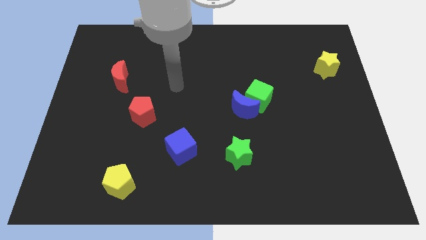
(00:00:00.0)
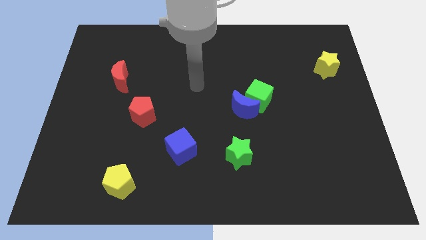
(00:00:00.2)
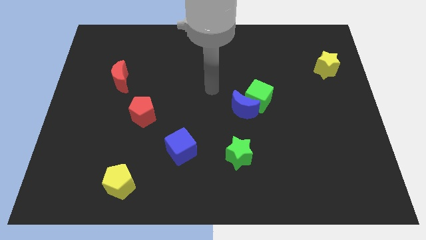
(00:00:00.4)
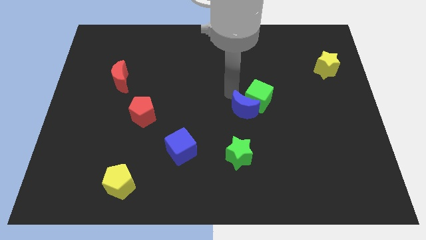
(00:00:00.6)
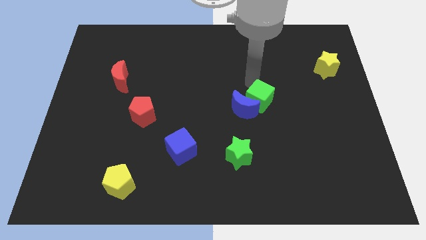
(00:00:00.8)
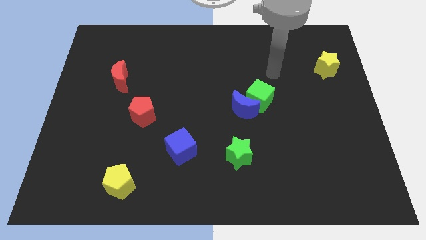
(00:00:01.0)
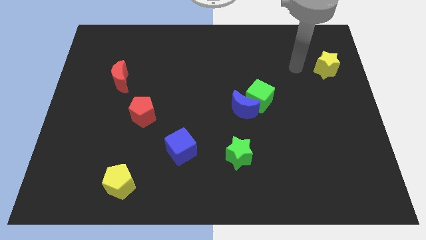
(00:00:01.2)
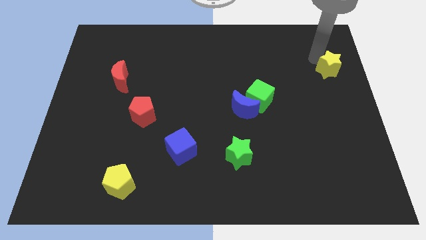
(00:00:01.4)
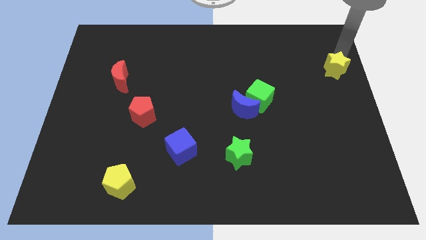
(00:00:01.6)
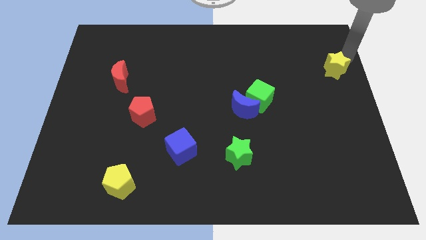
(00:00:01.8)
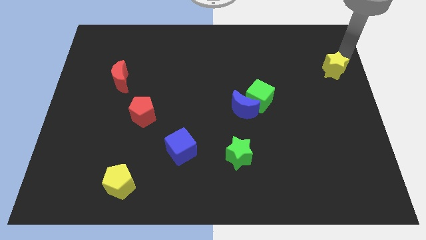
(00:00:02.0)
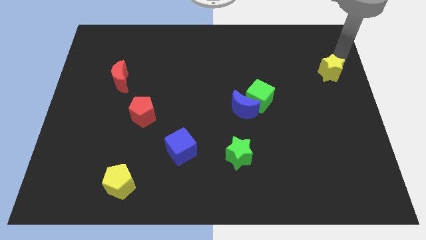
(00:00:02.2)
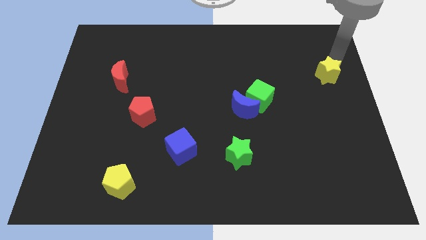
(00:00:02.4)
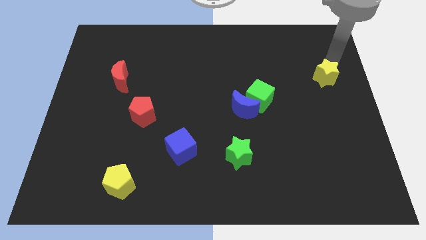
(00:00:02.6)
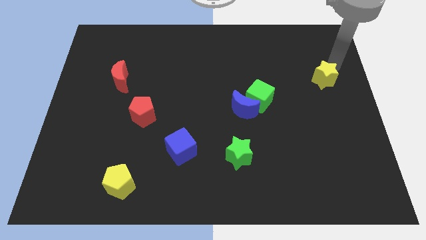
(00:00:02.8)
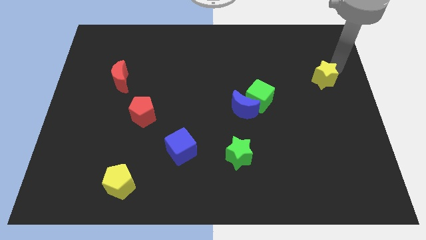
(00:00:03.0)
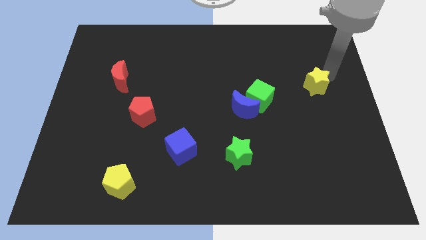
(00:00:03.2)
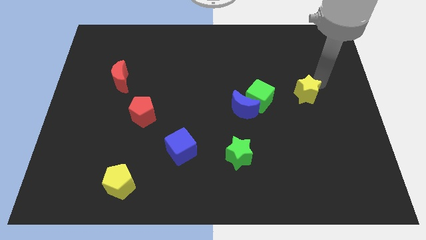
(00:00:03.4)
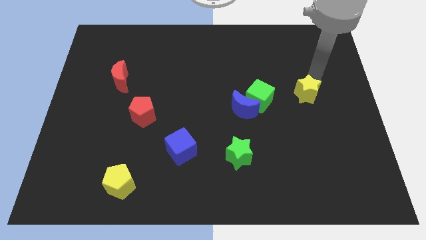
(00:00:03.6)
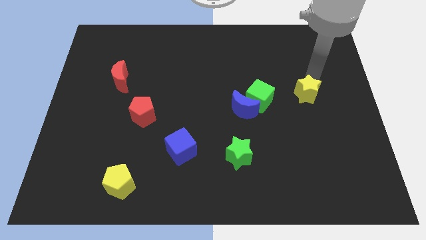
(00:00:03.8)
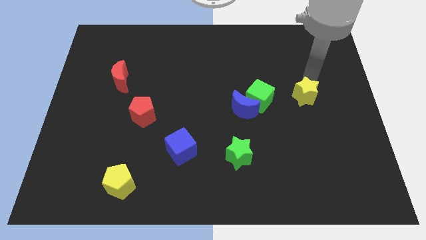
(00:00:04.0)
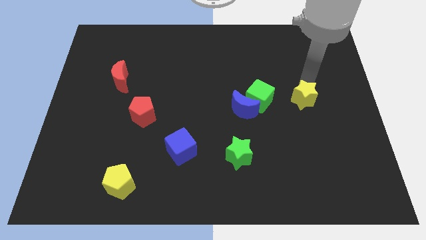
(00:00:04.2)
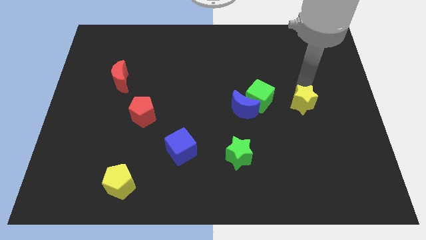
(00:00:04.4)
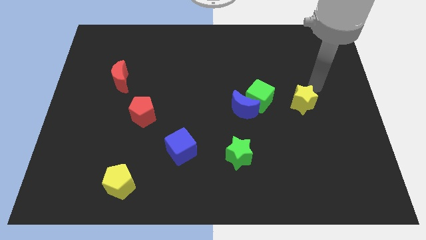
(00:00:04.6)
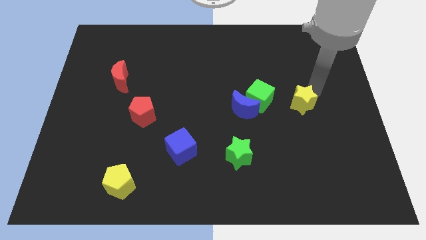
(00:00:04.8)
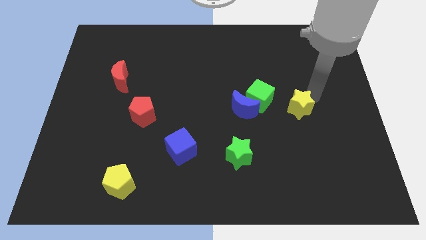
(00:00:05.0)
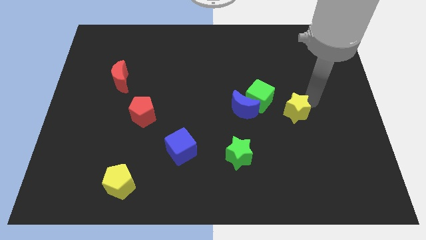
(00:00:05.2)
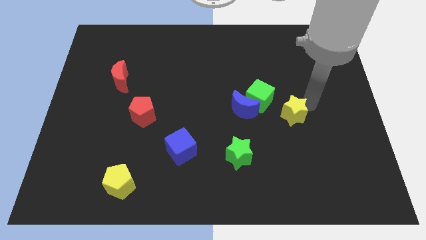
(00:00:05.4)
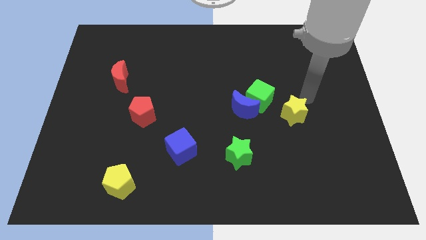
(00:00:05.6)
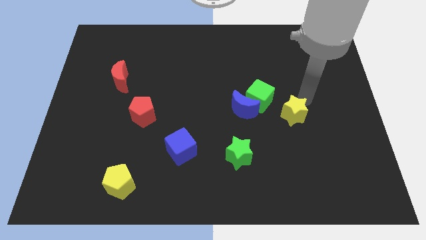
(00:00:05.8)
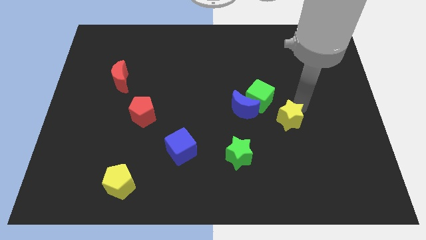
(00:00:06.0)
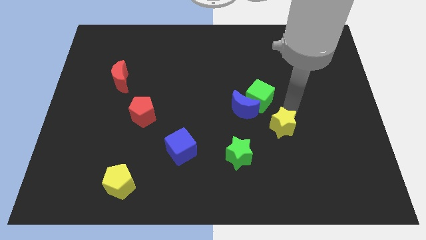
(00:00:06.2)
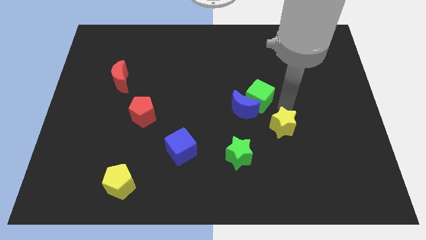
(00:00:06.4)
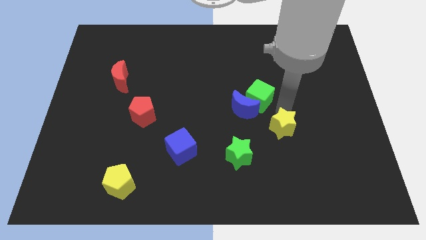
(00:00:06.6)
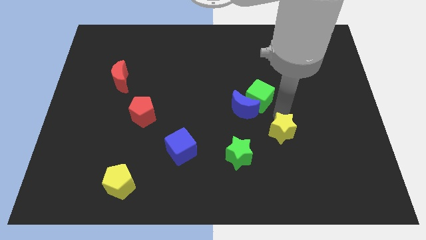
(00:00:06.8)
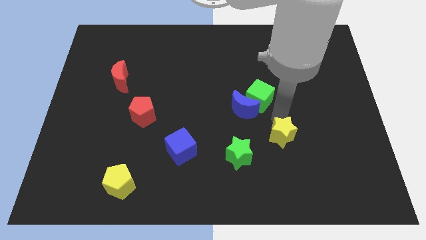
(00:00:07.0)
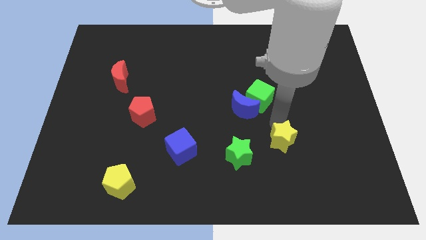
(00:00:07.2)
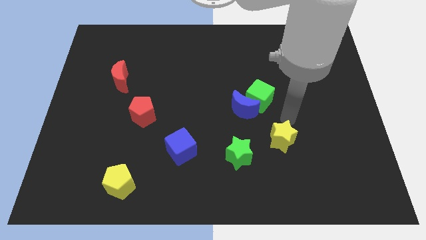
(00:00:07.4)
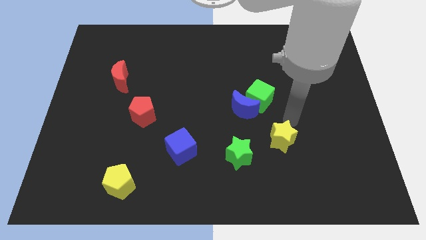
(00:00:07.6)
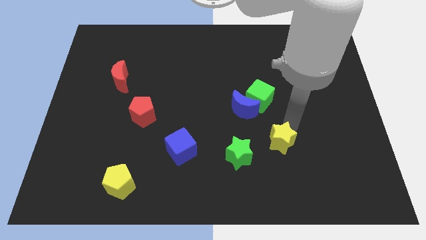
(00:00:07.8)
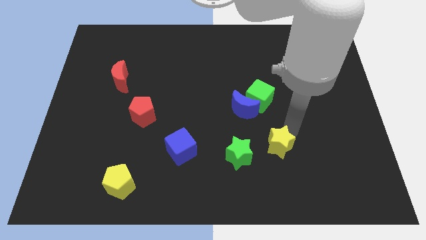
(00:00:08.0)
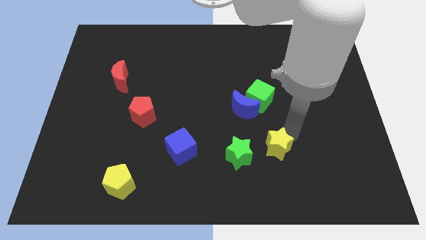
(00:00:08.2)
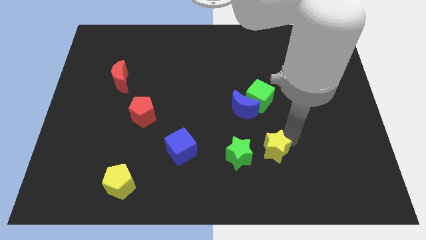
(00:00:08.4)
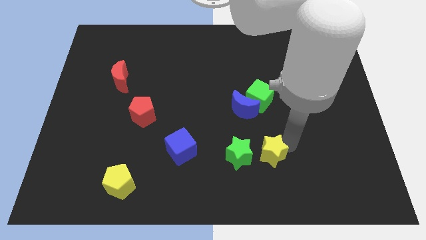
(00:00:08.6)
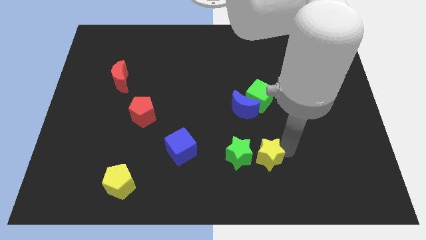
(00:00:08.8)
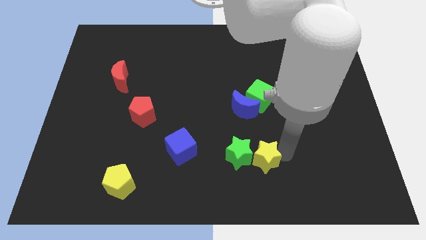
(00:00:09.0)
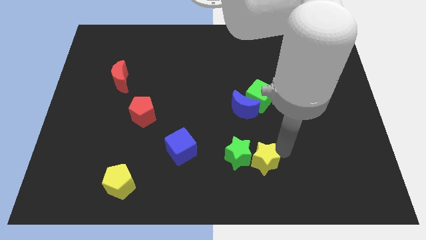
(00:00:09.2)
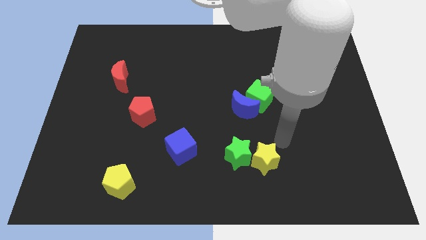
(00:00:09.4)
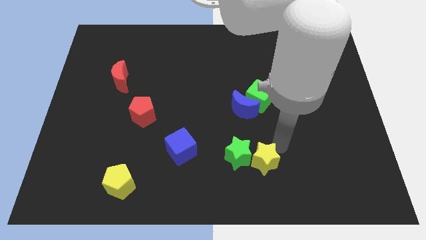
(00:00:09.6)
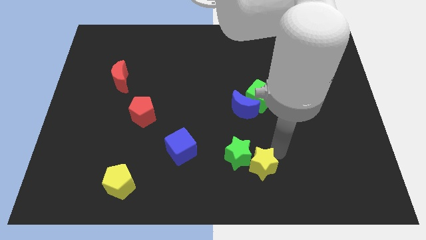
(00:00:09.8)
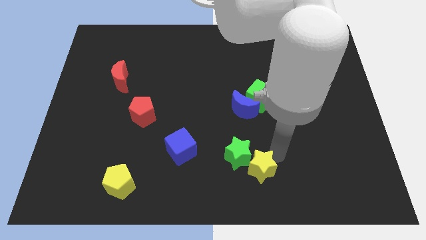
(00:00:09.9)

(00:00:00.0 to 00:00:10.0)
put the yellow star to the bottom side

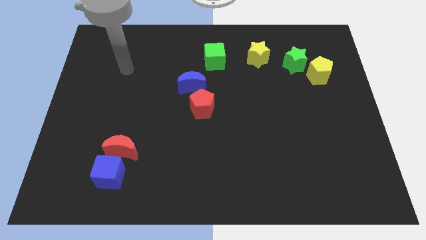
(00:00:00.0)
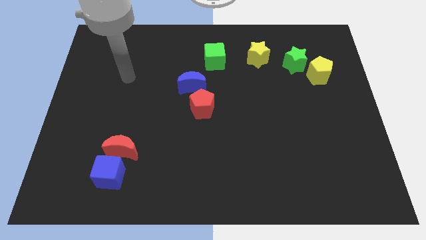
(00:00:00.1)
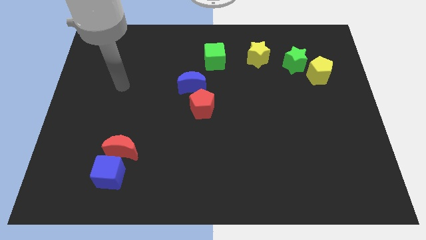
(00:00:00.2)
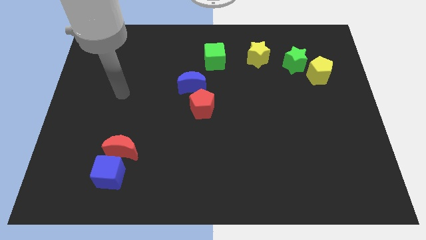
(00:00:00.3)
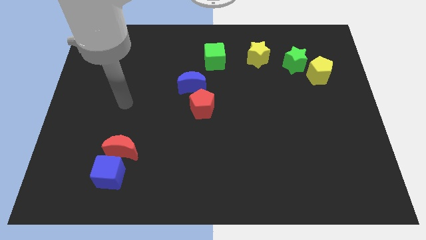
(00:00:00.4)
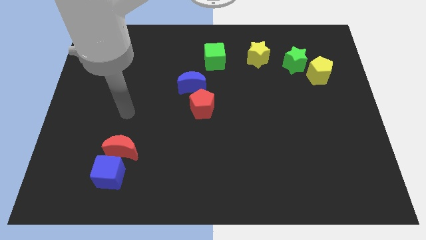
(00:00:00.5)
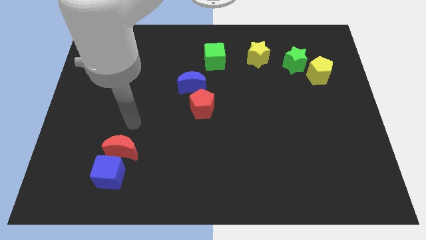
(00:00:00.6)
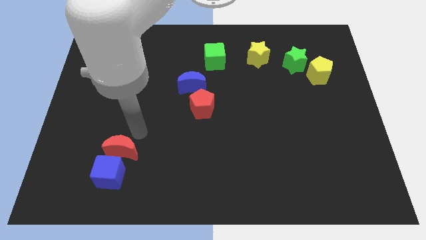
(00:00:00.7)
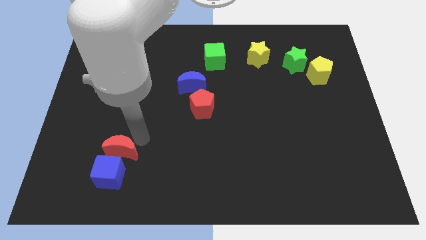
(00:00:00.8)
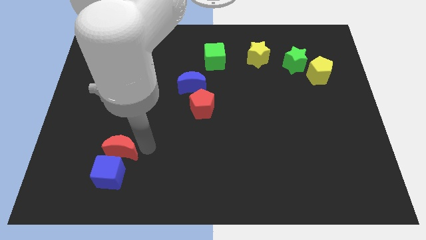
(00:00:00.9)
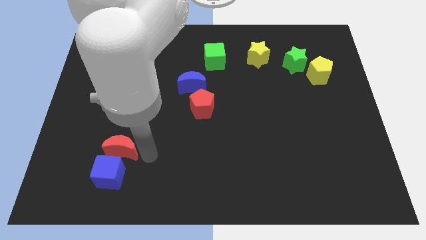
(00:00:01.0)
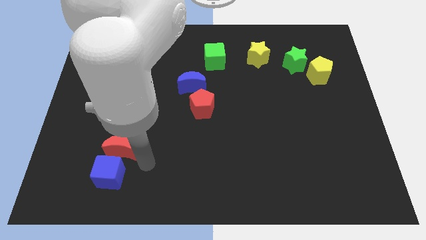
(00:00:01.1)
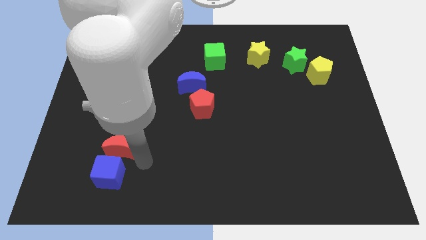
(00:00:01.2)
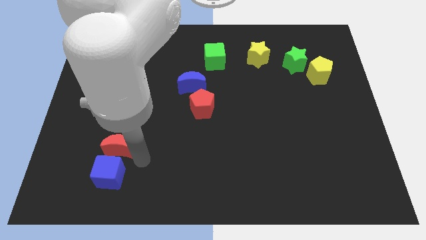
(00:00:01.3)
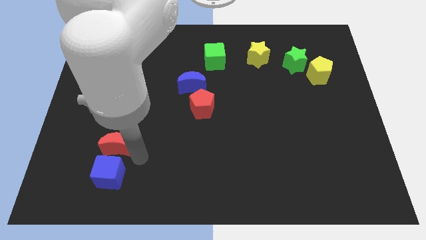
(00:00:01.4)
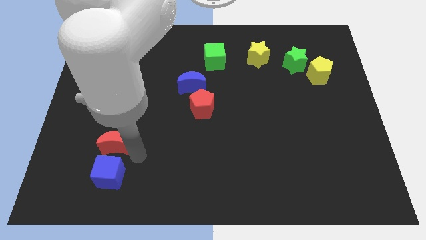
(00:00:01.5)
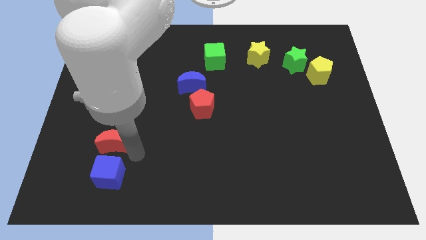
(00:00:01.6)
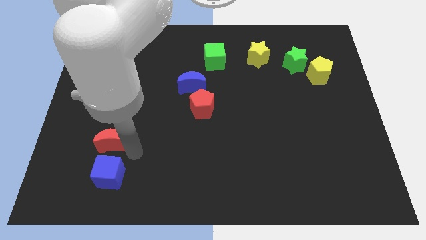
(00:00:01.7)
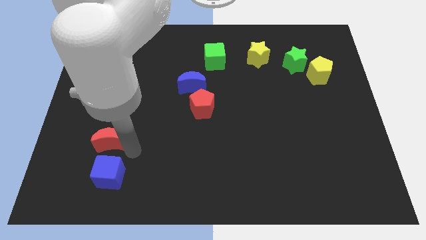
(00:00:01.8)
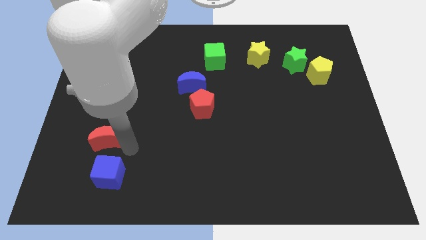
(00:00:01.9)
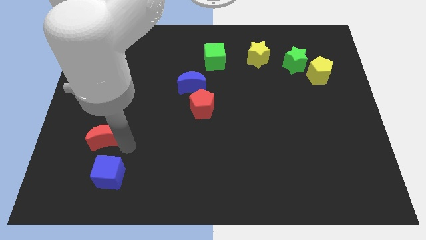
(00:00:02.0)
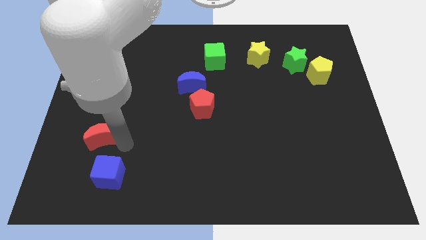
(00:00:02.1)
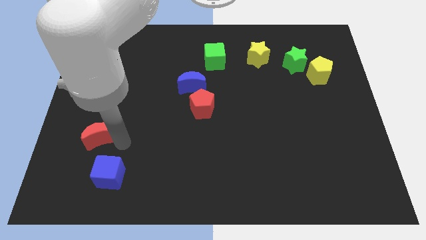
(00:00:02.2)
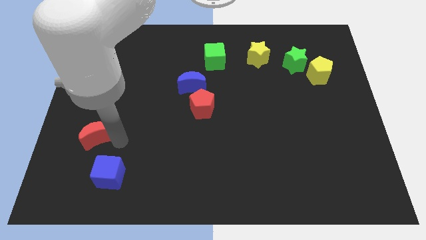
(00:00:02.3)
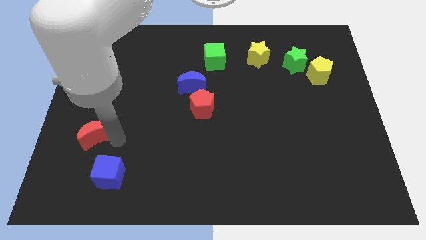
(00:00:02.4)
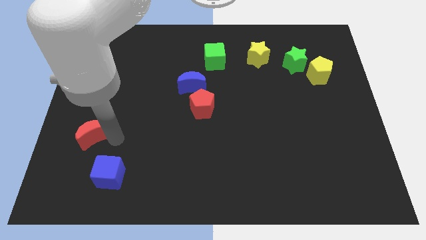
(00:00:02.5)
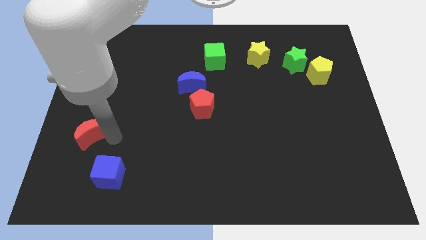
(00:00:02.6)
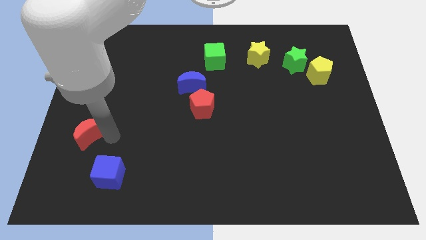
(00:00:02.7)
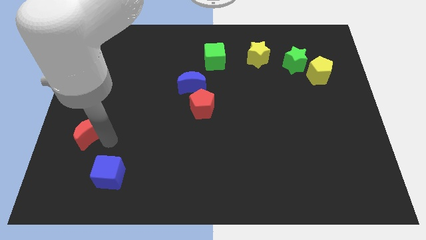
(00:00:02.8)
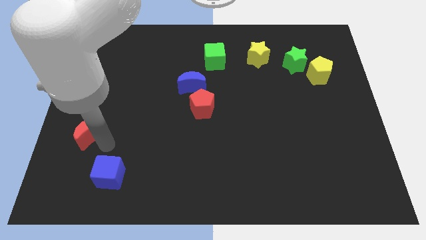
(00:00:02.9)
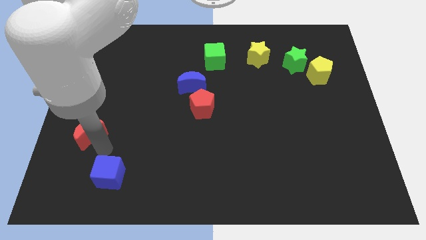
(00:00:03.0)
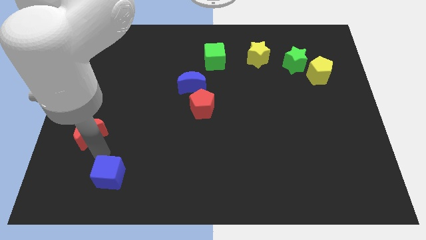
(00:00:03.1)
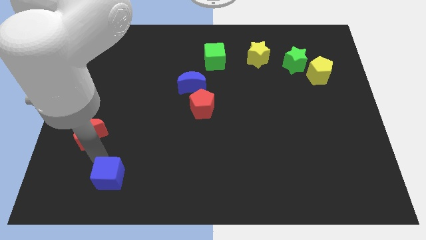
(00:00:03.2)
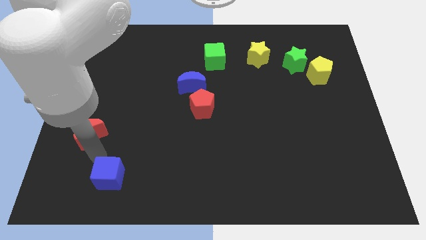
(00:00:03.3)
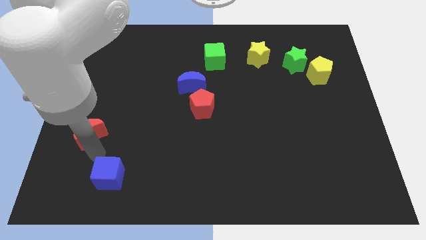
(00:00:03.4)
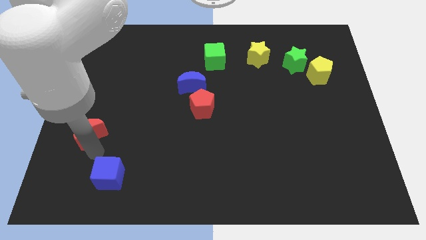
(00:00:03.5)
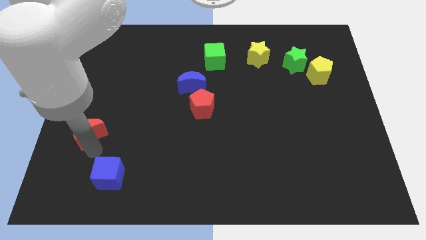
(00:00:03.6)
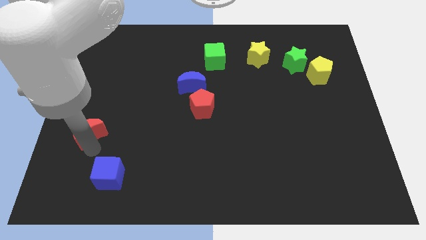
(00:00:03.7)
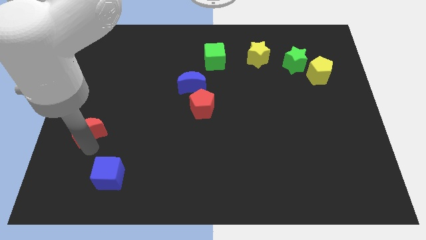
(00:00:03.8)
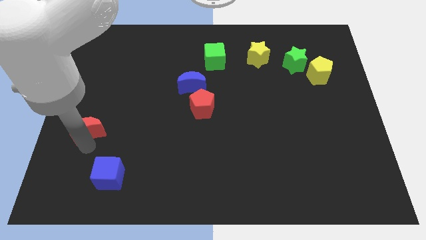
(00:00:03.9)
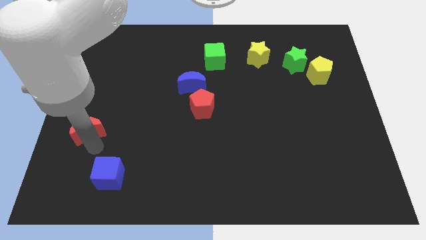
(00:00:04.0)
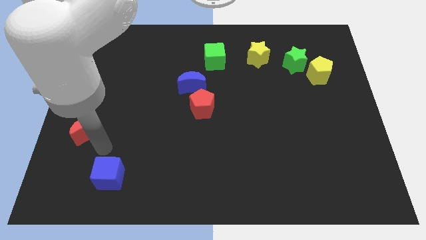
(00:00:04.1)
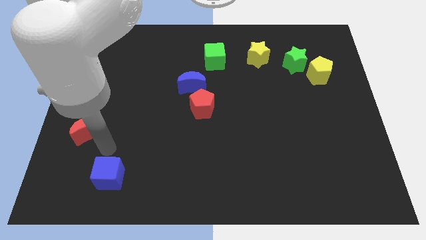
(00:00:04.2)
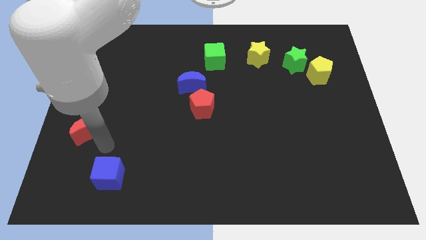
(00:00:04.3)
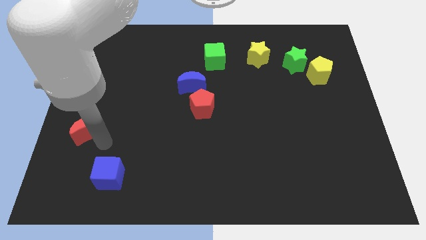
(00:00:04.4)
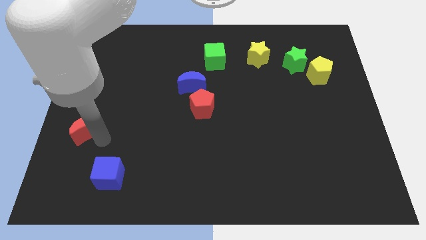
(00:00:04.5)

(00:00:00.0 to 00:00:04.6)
slide the red moon to the center left
